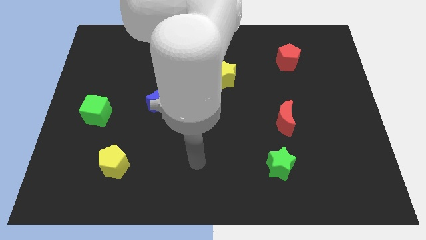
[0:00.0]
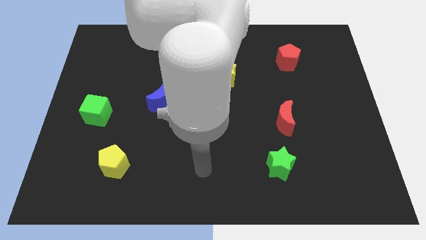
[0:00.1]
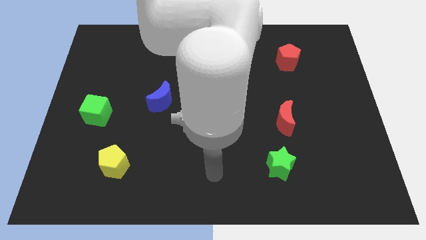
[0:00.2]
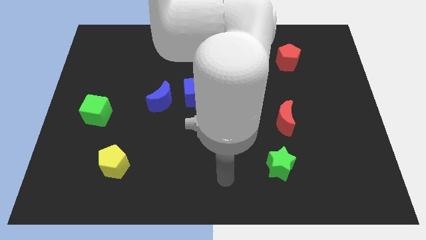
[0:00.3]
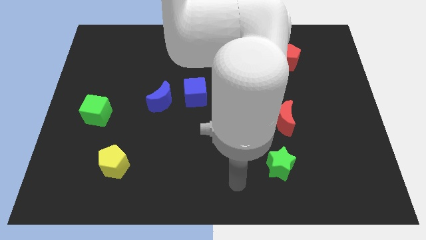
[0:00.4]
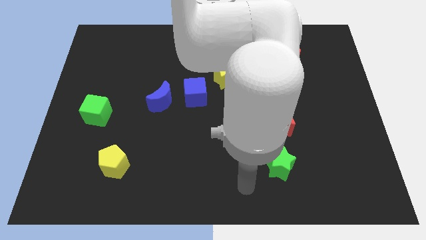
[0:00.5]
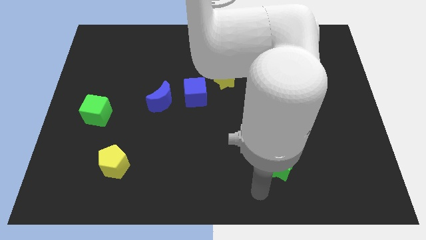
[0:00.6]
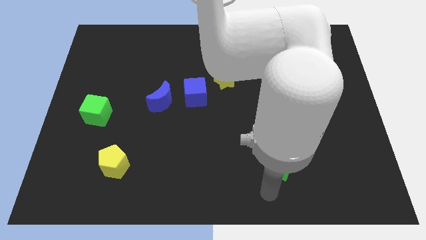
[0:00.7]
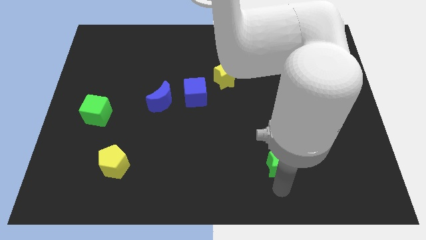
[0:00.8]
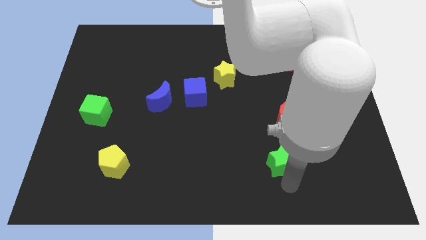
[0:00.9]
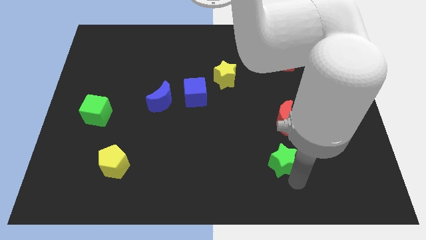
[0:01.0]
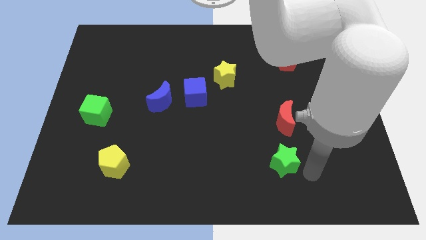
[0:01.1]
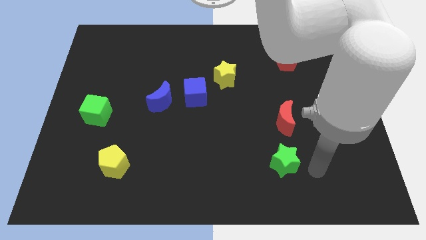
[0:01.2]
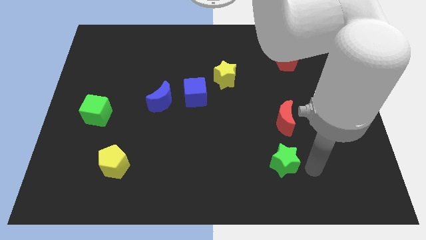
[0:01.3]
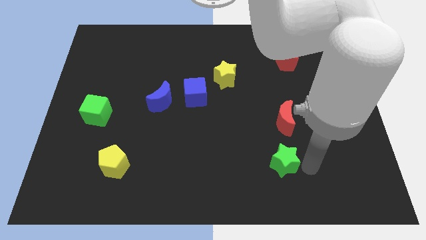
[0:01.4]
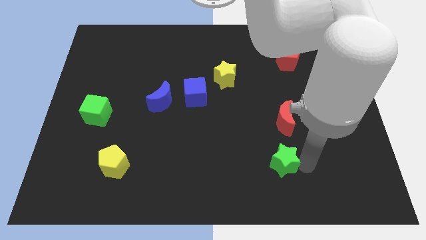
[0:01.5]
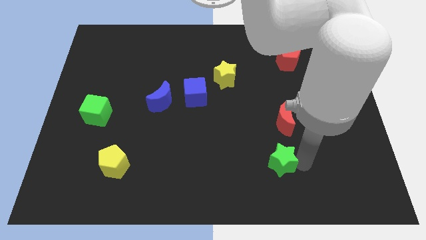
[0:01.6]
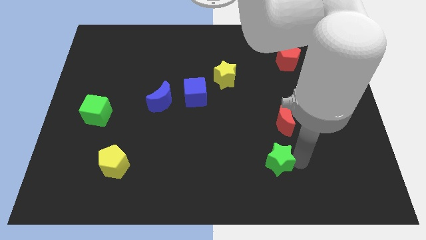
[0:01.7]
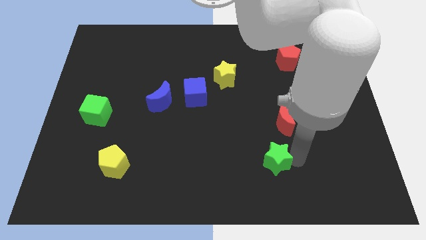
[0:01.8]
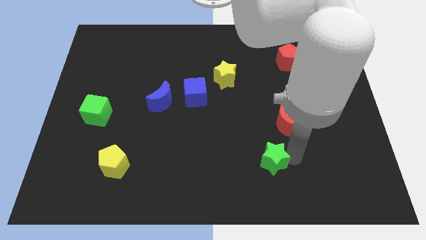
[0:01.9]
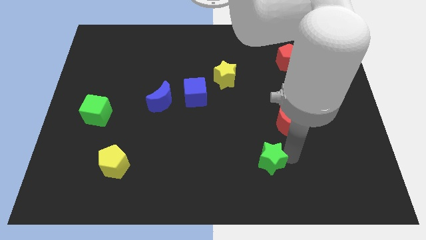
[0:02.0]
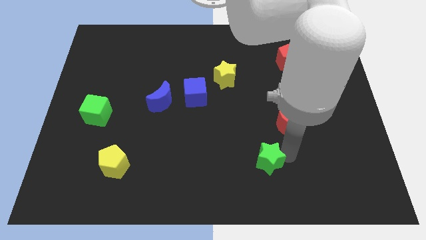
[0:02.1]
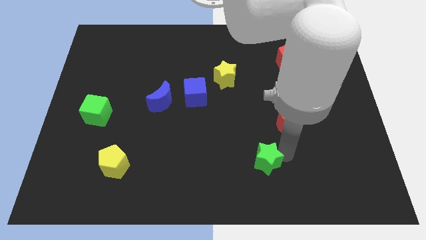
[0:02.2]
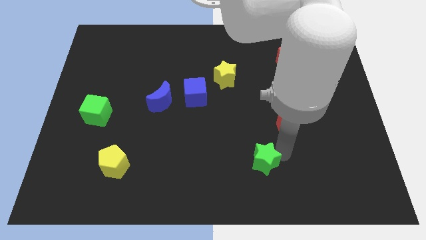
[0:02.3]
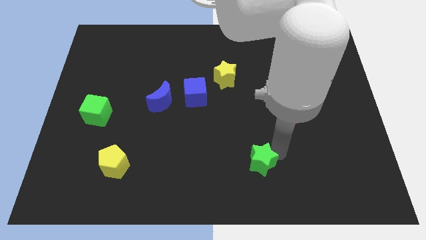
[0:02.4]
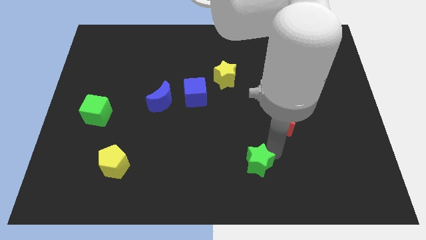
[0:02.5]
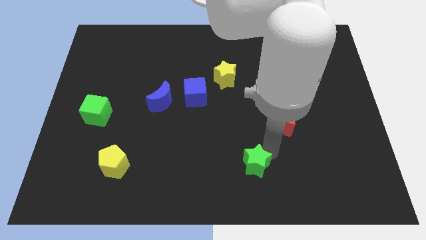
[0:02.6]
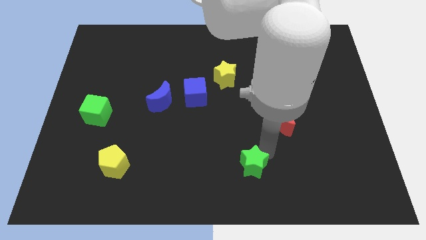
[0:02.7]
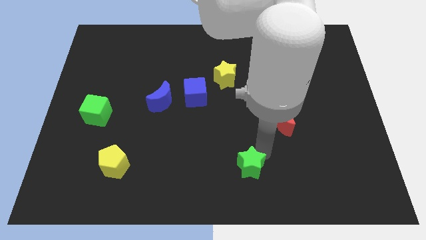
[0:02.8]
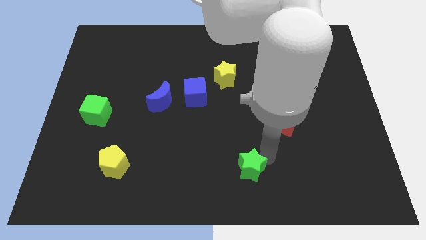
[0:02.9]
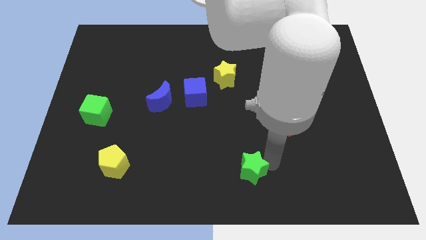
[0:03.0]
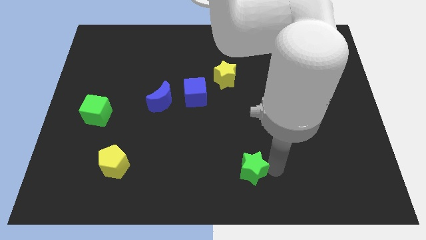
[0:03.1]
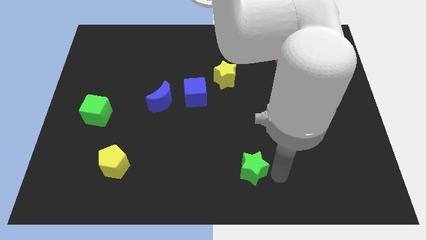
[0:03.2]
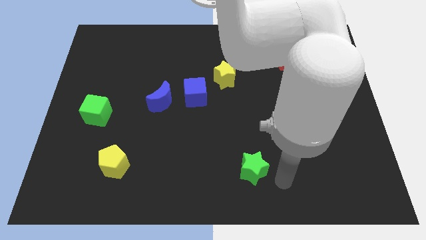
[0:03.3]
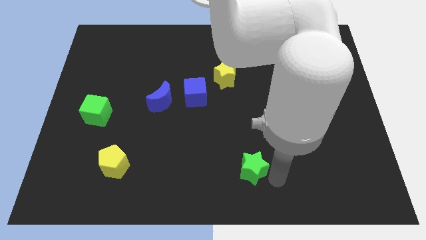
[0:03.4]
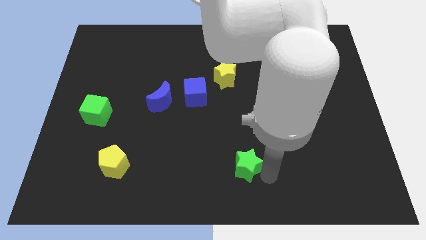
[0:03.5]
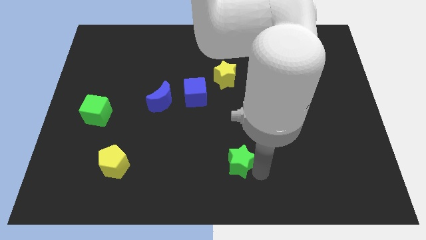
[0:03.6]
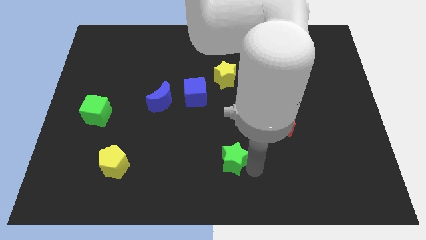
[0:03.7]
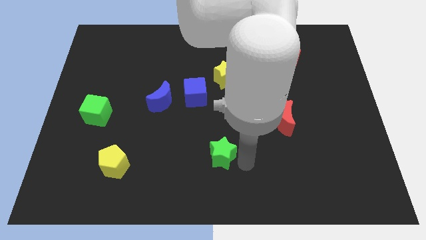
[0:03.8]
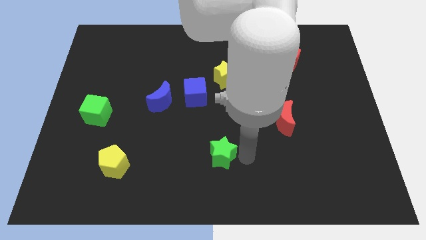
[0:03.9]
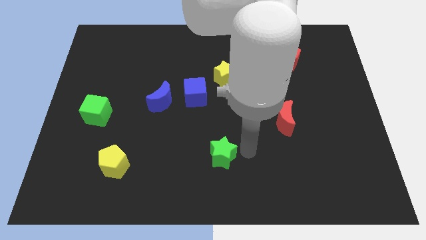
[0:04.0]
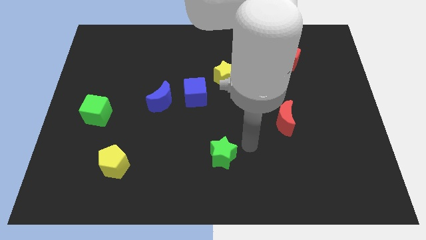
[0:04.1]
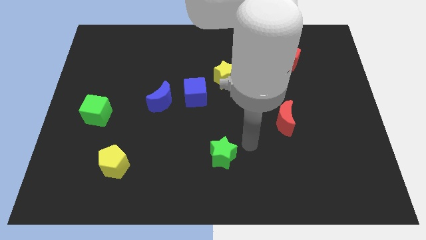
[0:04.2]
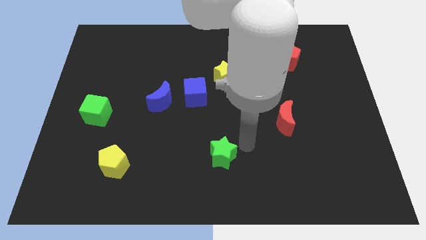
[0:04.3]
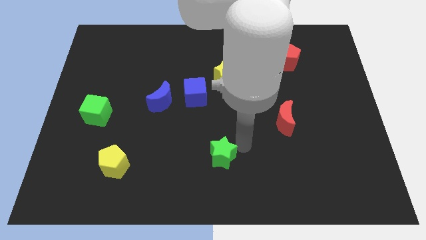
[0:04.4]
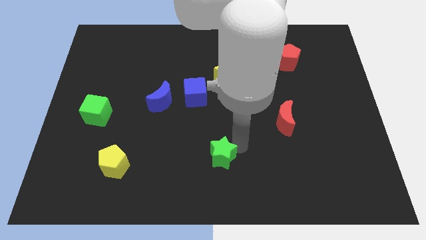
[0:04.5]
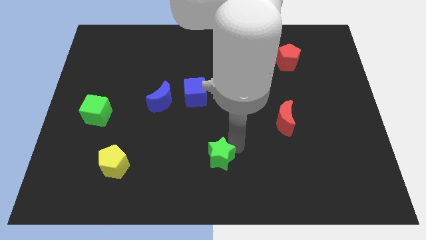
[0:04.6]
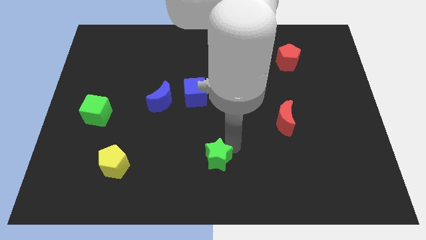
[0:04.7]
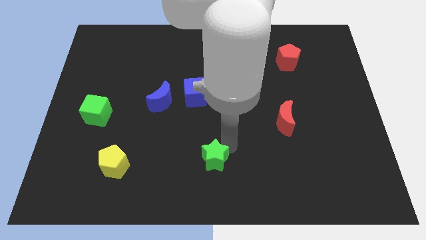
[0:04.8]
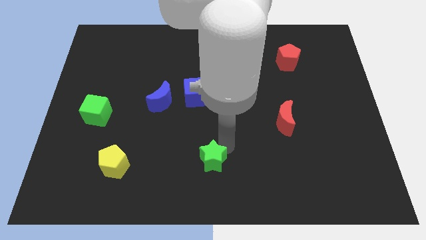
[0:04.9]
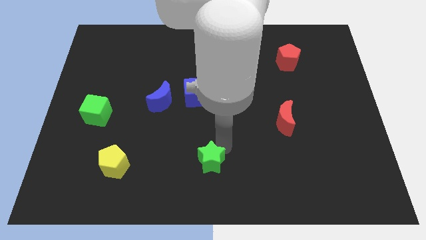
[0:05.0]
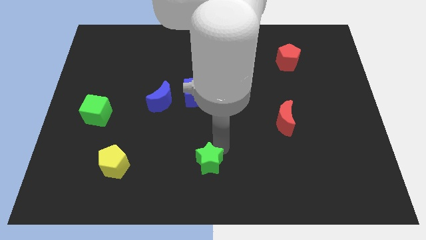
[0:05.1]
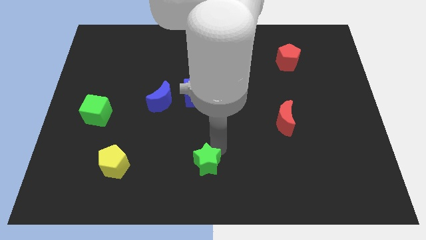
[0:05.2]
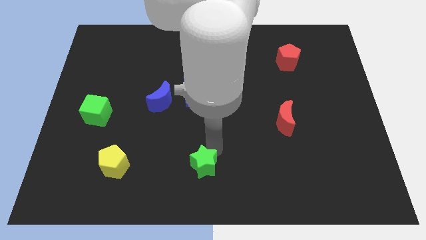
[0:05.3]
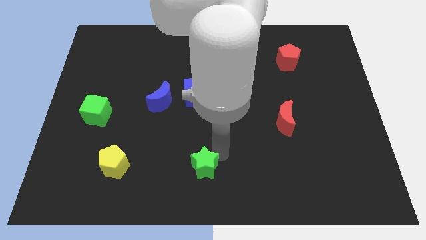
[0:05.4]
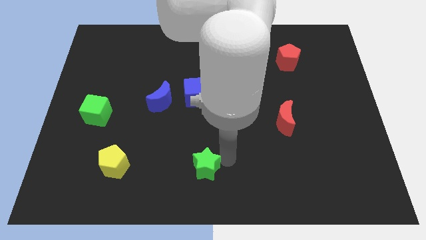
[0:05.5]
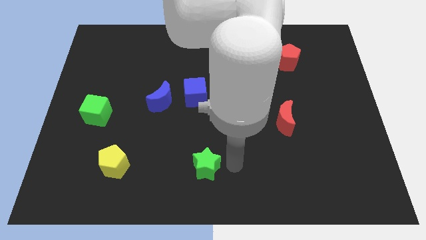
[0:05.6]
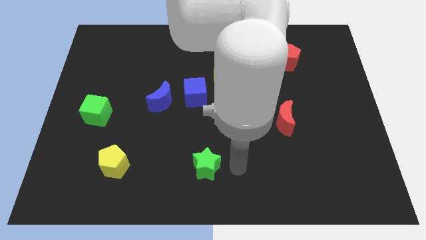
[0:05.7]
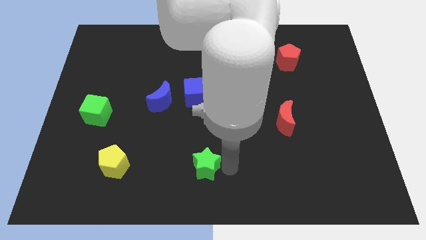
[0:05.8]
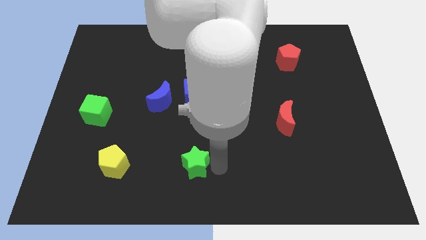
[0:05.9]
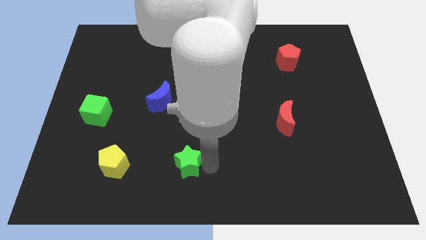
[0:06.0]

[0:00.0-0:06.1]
put the green star to the right of the yellow pentagon

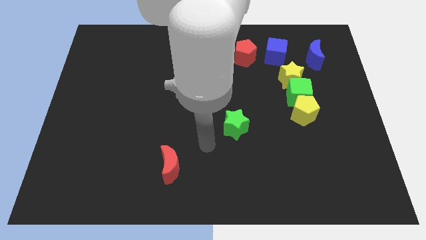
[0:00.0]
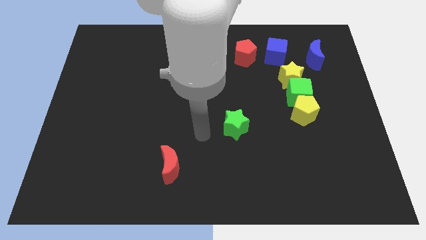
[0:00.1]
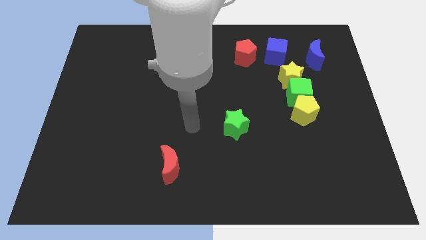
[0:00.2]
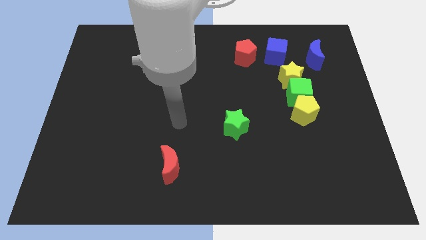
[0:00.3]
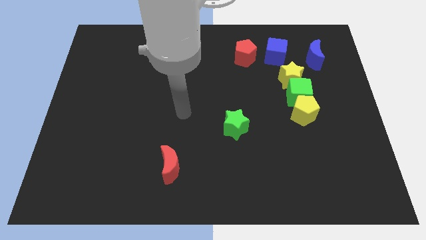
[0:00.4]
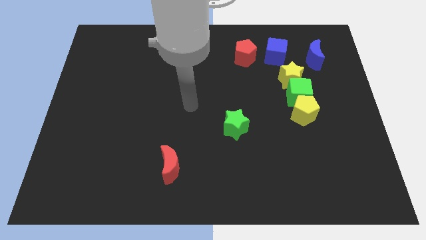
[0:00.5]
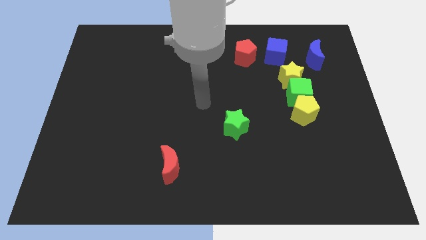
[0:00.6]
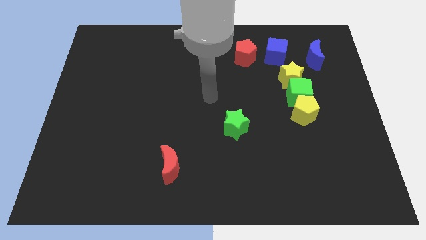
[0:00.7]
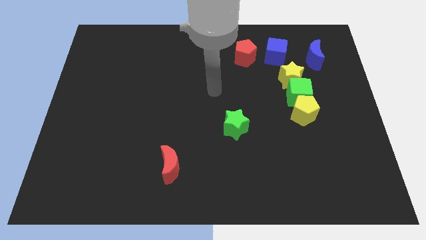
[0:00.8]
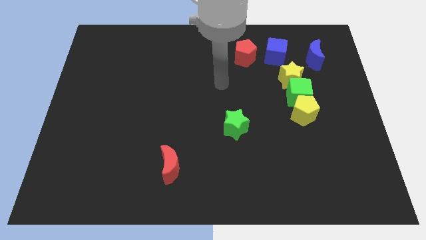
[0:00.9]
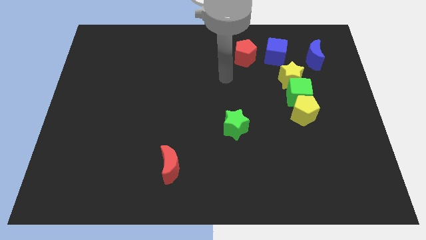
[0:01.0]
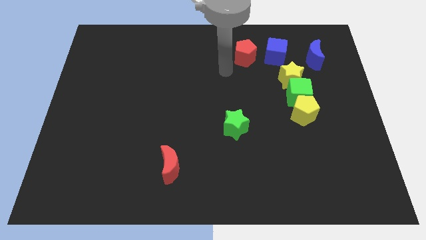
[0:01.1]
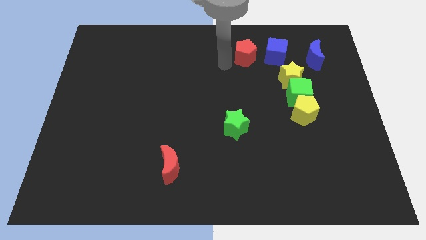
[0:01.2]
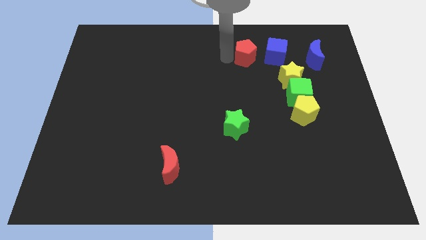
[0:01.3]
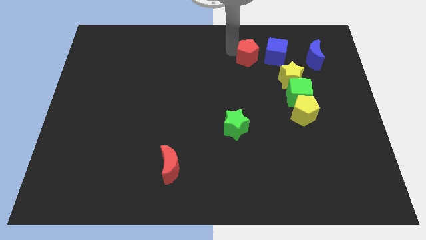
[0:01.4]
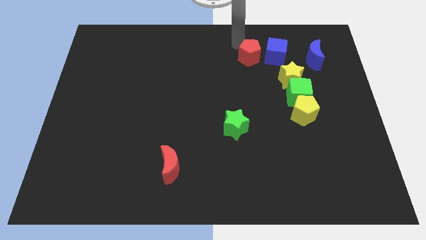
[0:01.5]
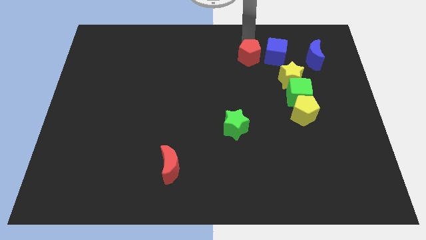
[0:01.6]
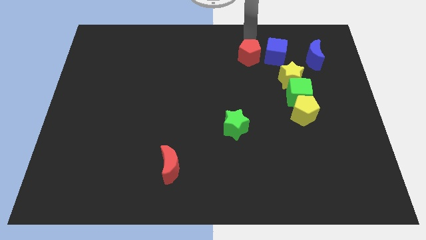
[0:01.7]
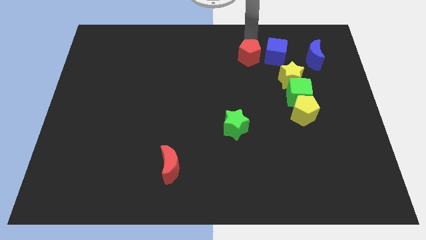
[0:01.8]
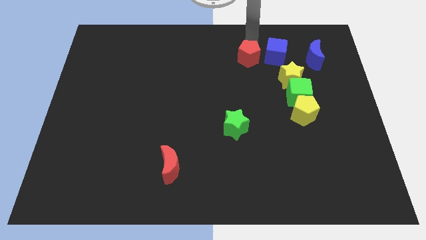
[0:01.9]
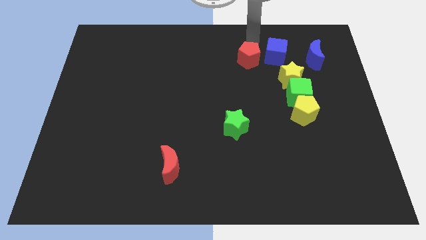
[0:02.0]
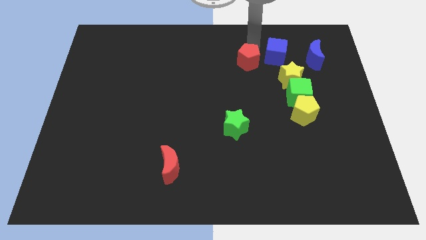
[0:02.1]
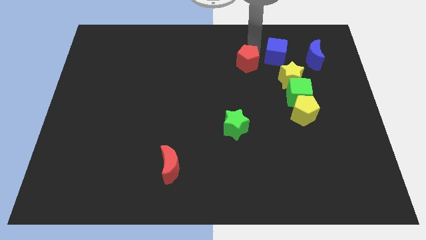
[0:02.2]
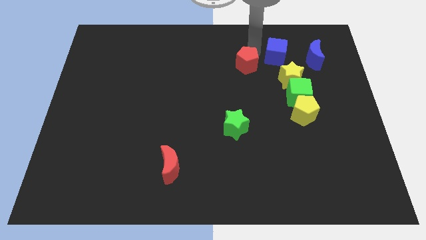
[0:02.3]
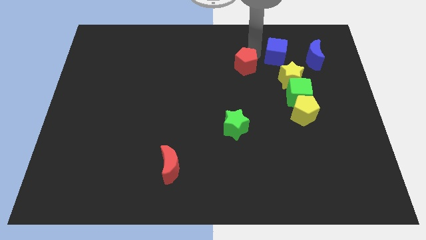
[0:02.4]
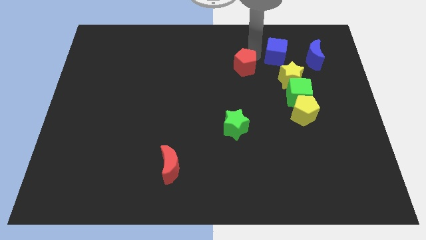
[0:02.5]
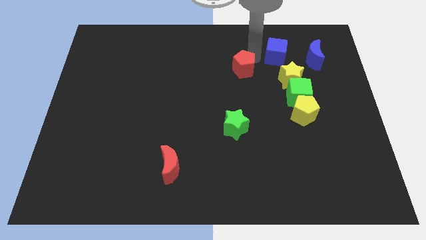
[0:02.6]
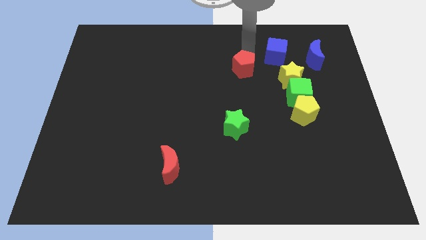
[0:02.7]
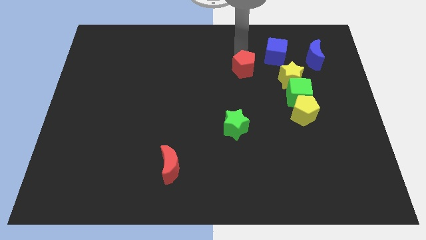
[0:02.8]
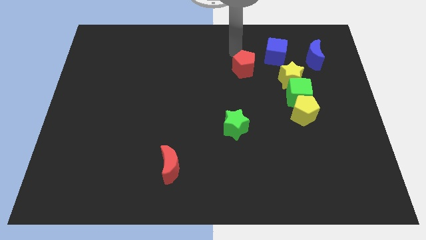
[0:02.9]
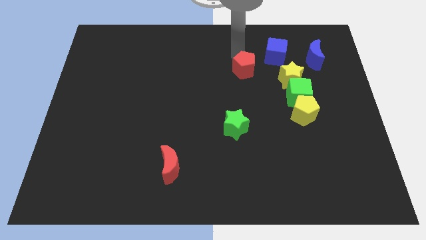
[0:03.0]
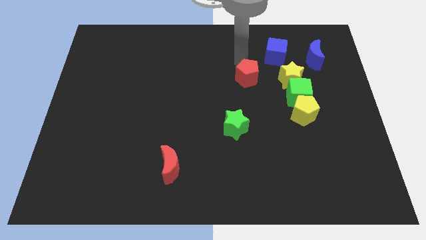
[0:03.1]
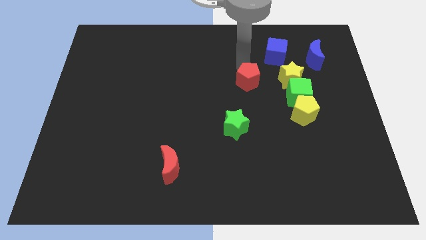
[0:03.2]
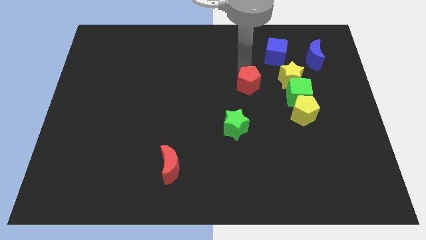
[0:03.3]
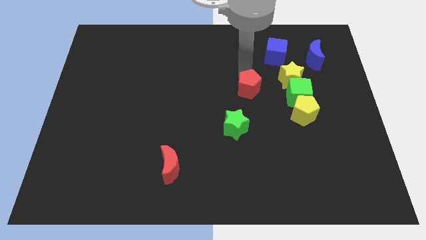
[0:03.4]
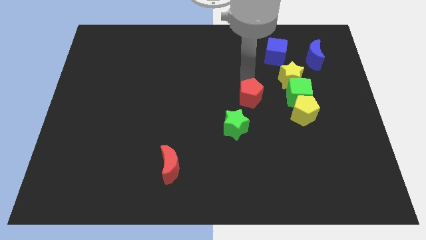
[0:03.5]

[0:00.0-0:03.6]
put the red pentagon left of the yellow pentagon
